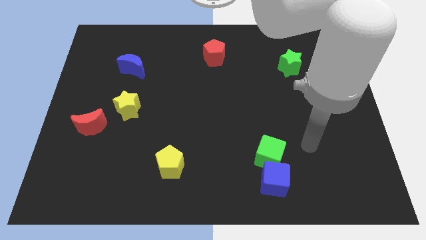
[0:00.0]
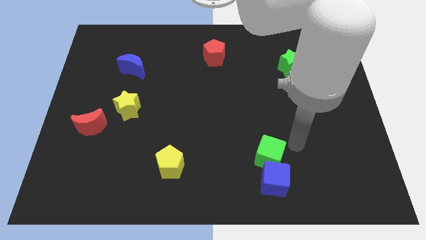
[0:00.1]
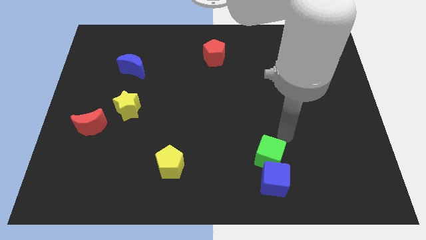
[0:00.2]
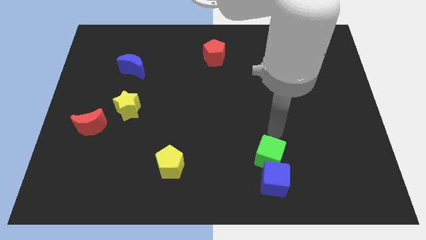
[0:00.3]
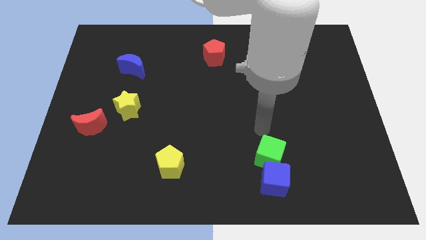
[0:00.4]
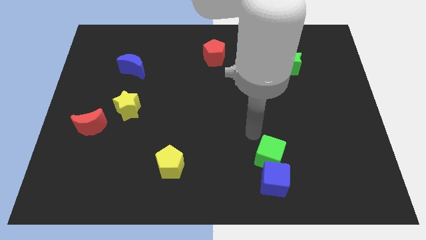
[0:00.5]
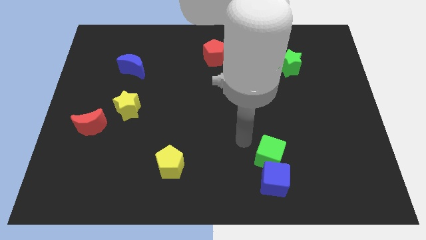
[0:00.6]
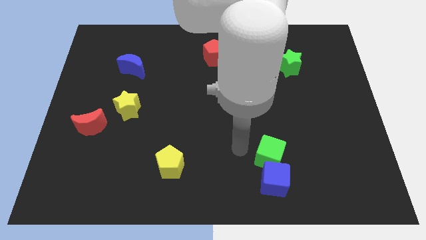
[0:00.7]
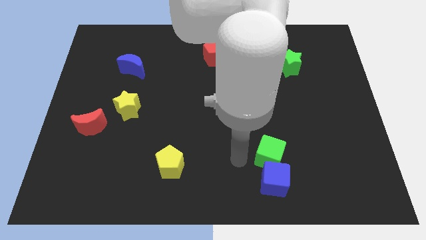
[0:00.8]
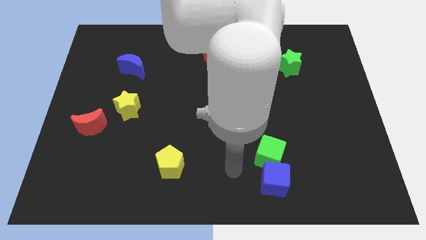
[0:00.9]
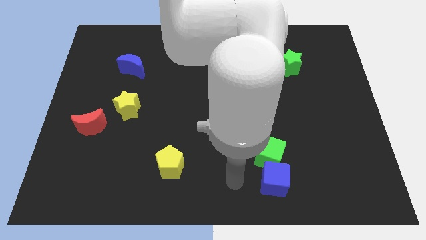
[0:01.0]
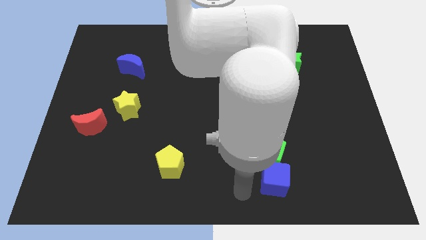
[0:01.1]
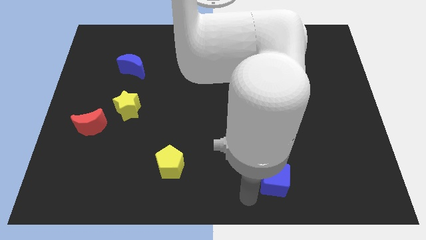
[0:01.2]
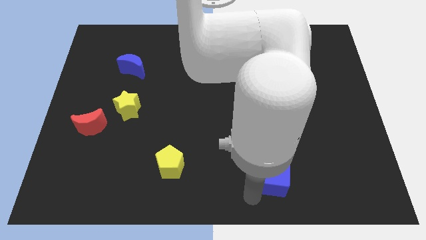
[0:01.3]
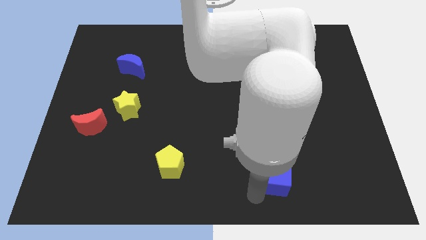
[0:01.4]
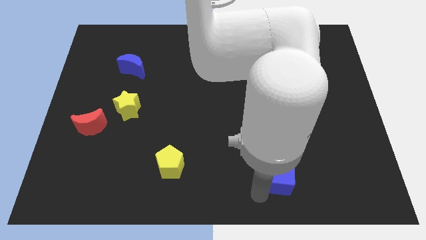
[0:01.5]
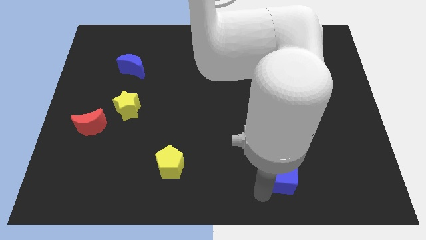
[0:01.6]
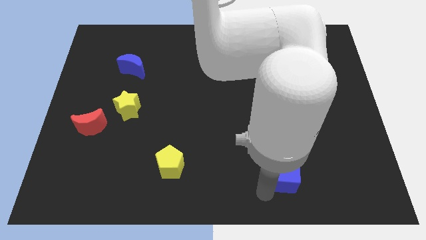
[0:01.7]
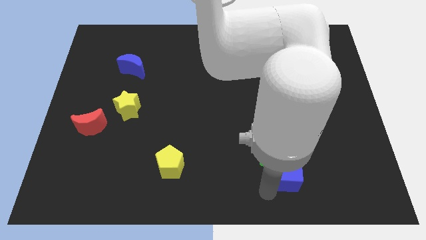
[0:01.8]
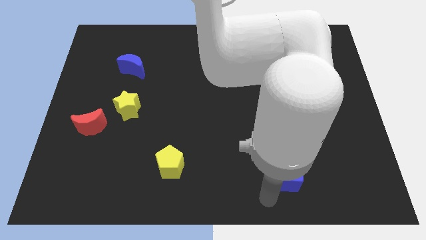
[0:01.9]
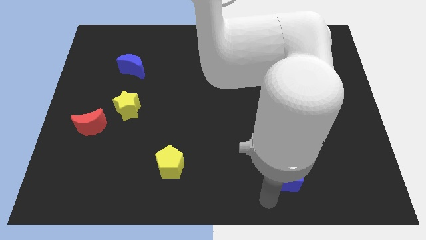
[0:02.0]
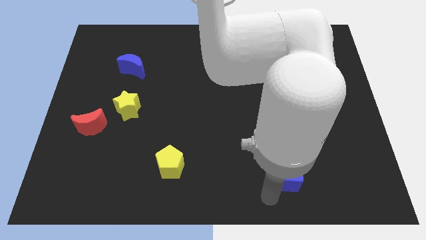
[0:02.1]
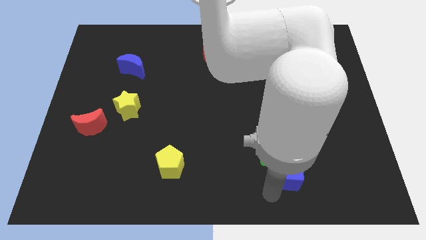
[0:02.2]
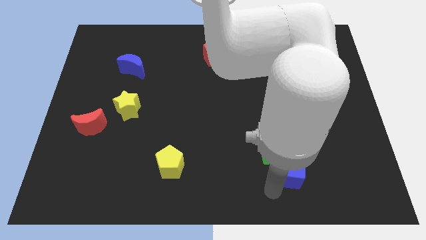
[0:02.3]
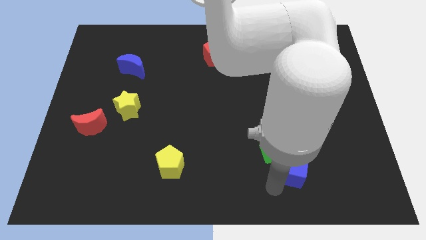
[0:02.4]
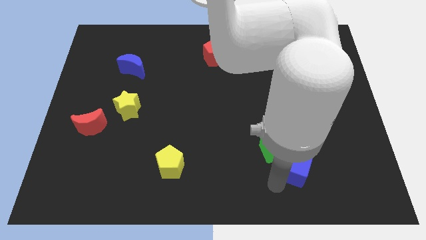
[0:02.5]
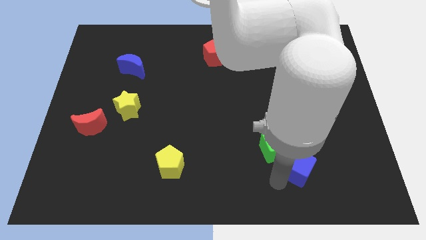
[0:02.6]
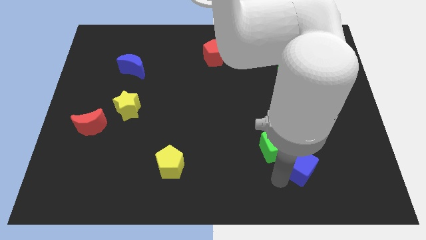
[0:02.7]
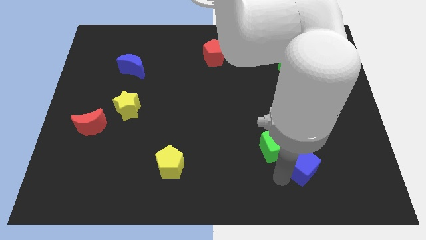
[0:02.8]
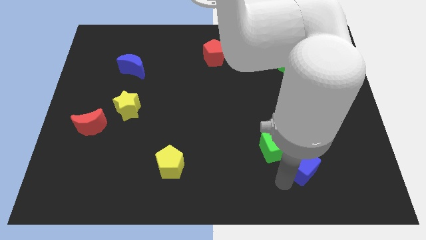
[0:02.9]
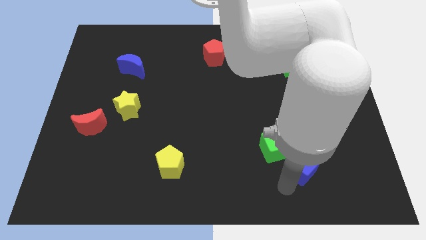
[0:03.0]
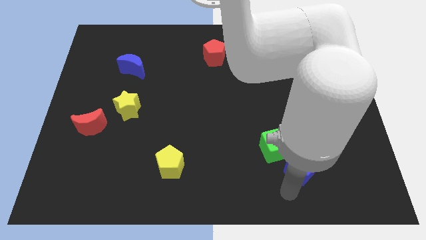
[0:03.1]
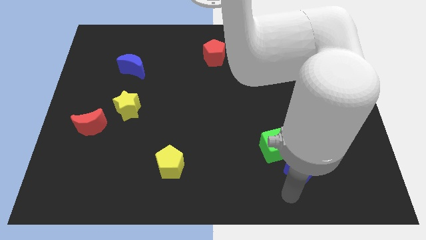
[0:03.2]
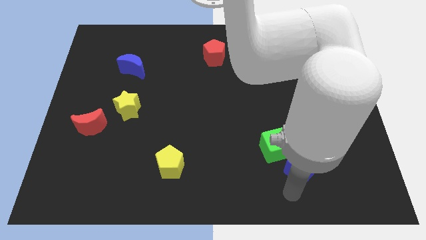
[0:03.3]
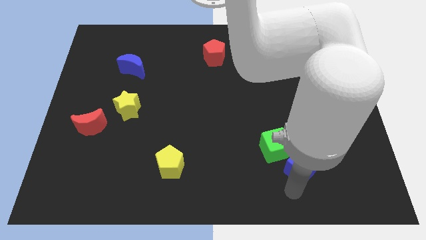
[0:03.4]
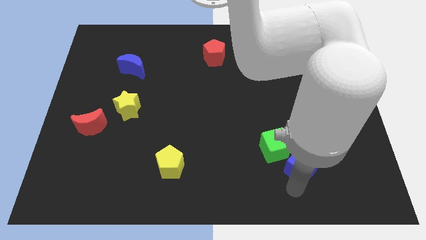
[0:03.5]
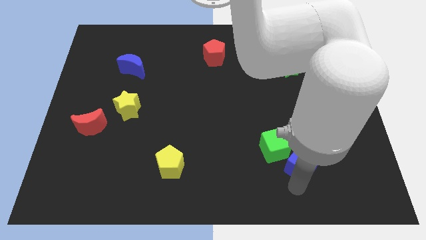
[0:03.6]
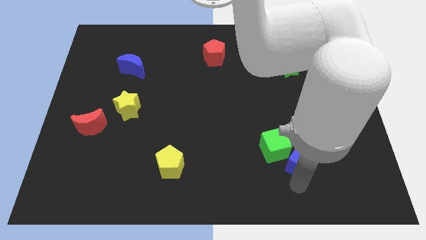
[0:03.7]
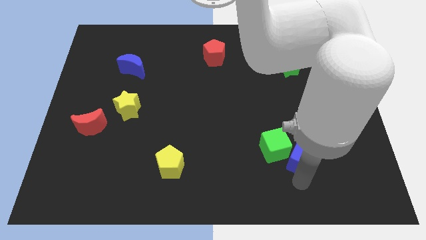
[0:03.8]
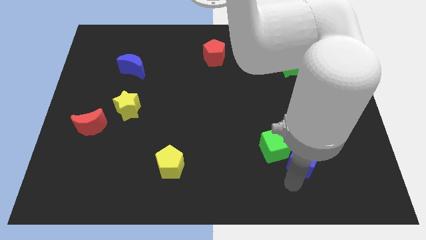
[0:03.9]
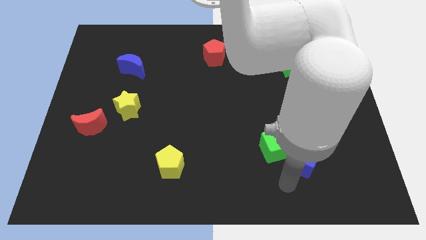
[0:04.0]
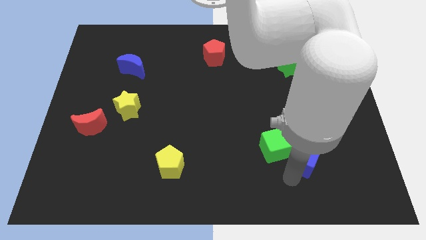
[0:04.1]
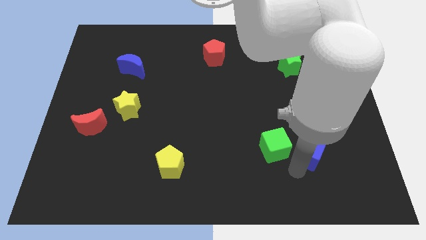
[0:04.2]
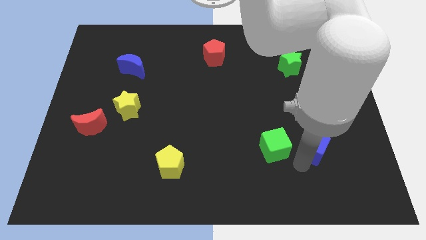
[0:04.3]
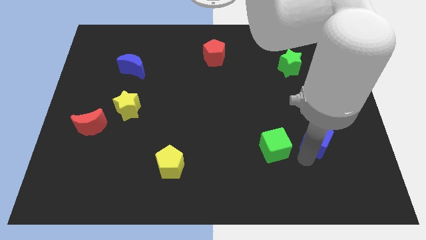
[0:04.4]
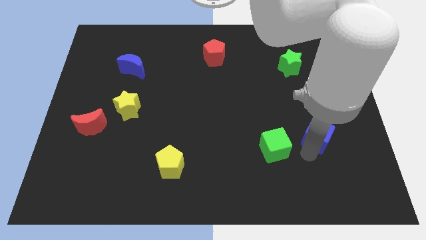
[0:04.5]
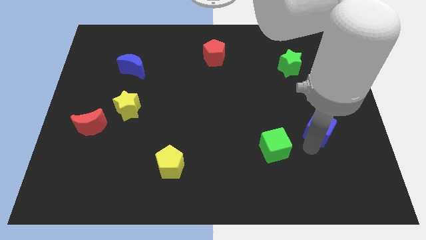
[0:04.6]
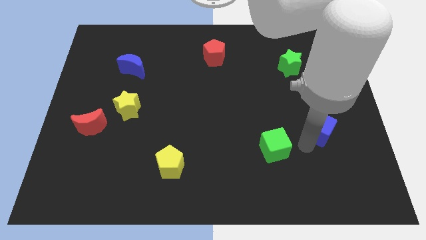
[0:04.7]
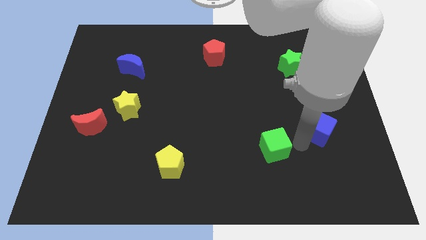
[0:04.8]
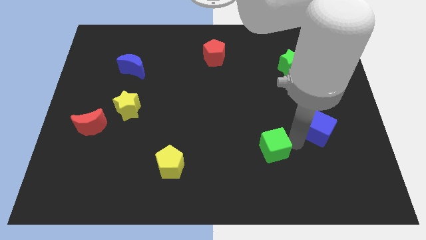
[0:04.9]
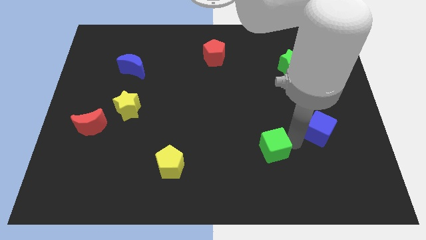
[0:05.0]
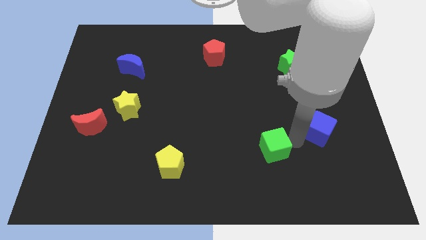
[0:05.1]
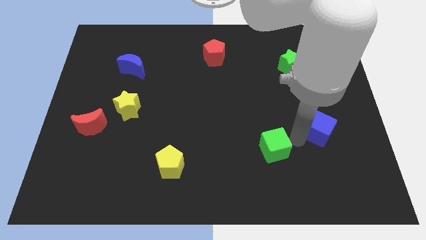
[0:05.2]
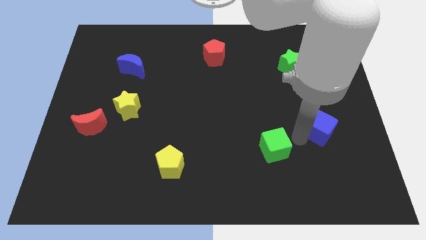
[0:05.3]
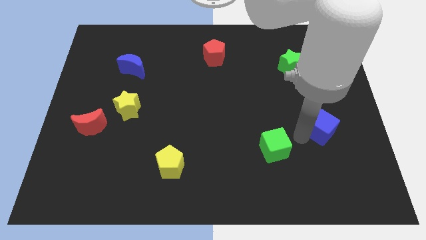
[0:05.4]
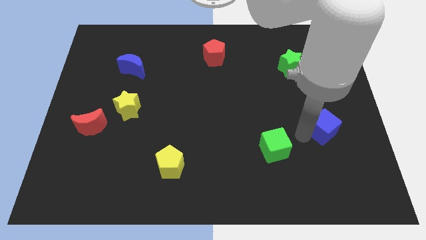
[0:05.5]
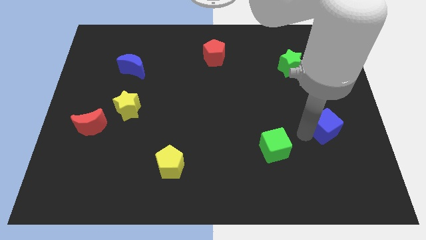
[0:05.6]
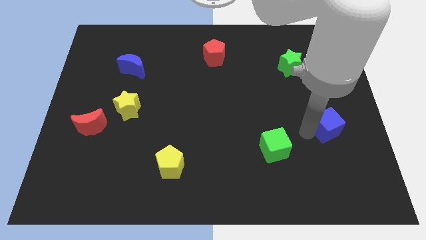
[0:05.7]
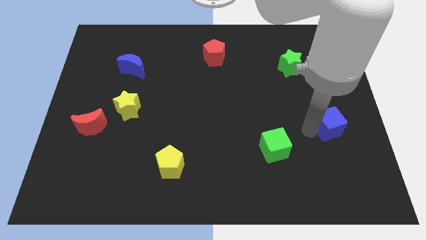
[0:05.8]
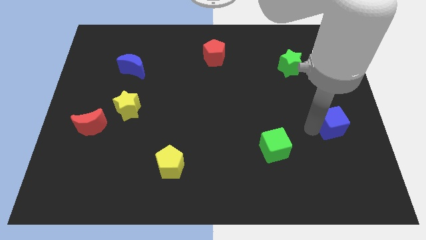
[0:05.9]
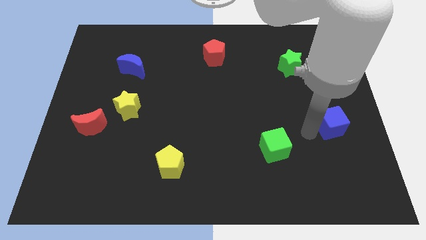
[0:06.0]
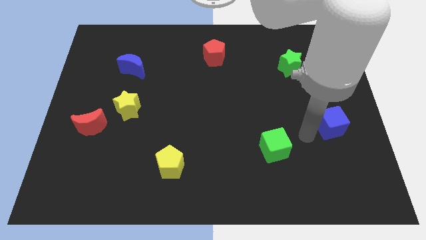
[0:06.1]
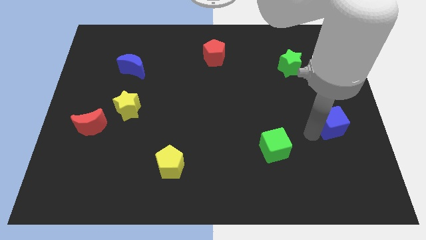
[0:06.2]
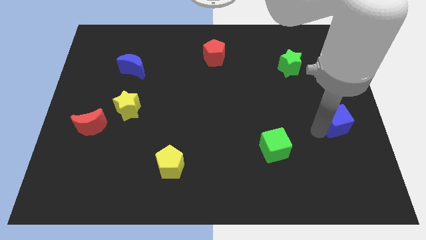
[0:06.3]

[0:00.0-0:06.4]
put the blue cube to the right side
